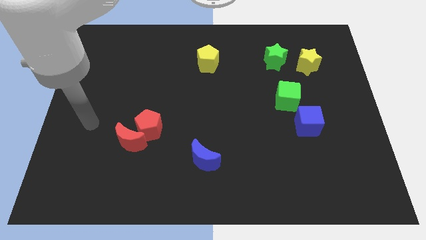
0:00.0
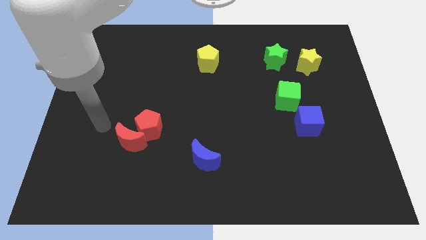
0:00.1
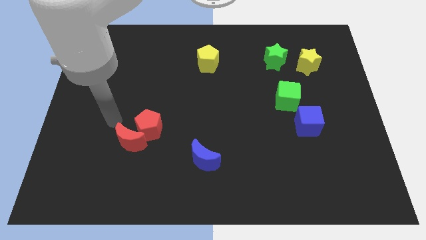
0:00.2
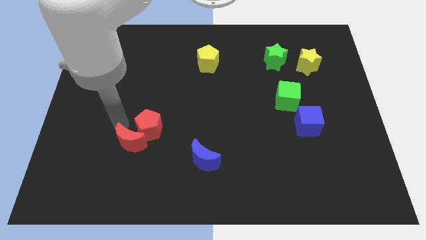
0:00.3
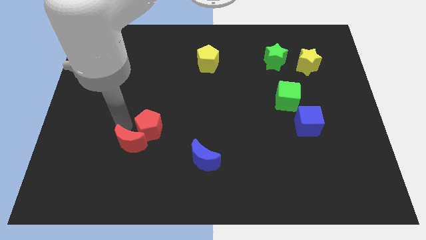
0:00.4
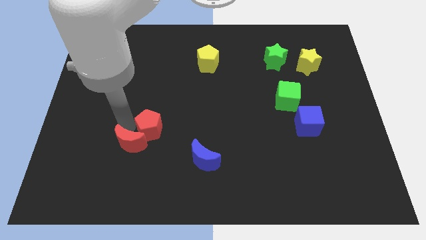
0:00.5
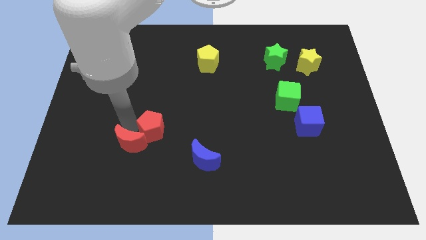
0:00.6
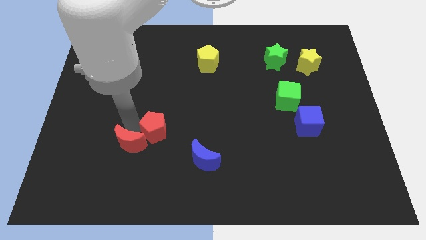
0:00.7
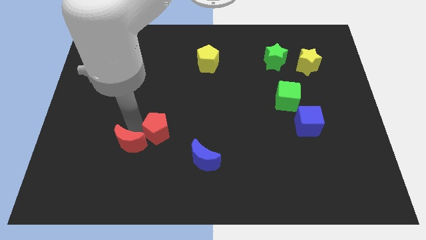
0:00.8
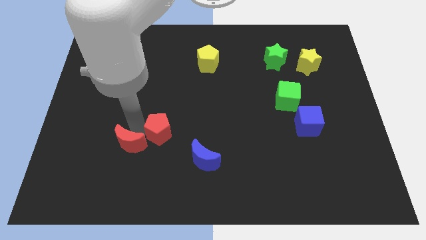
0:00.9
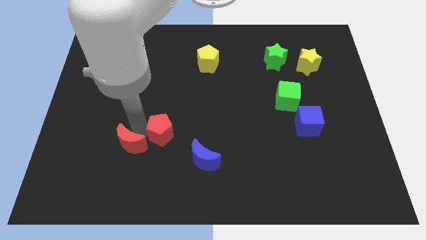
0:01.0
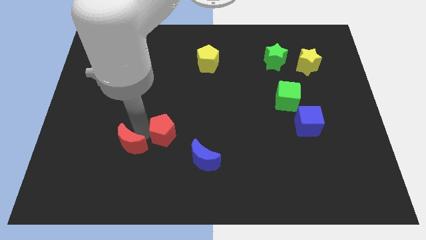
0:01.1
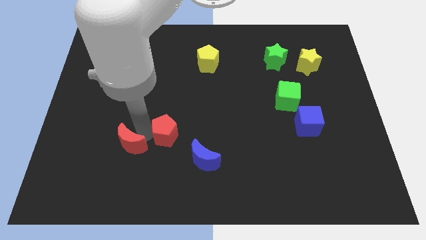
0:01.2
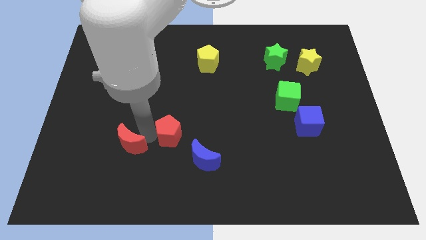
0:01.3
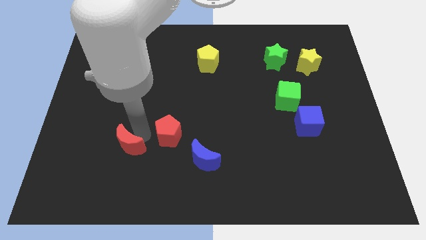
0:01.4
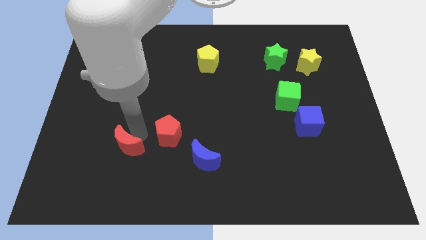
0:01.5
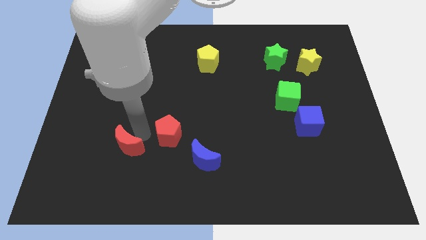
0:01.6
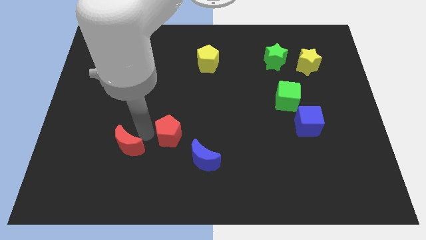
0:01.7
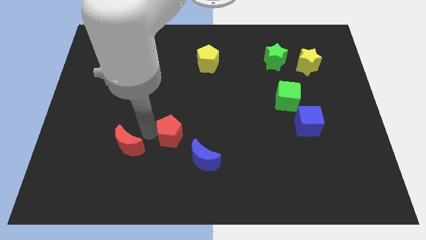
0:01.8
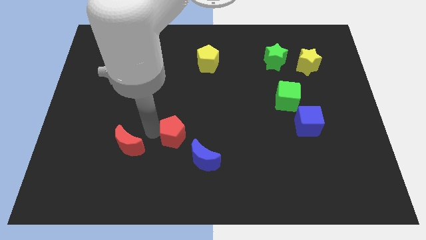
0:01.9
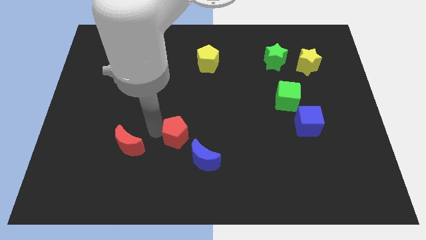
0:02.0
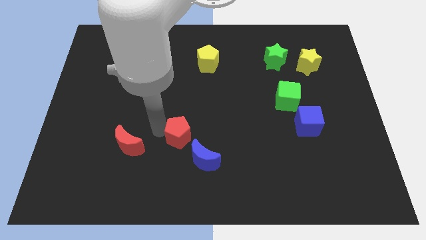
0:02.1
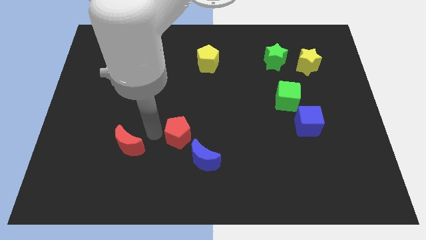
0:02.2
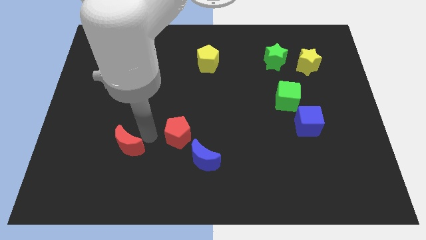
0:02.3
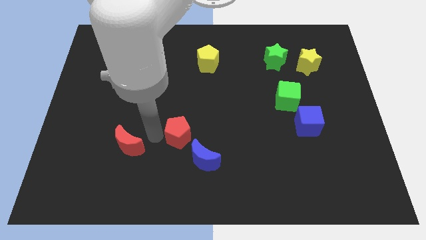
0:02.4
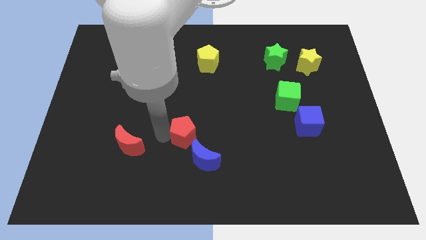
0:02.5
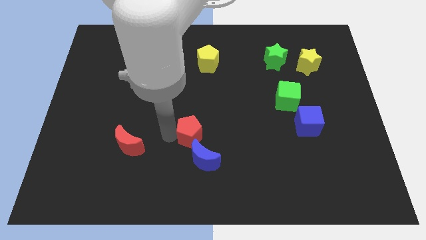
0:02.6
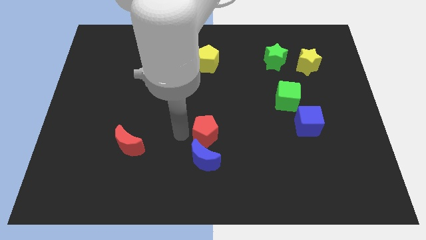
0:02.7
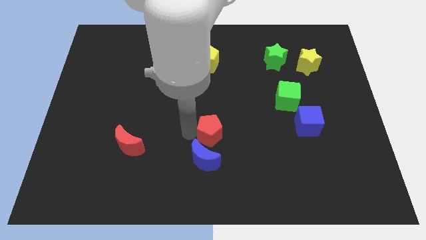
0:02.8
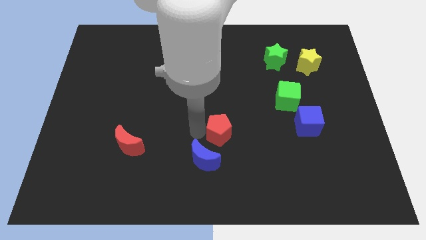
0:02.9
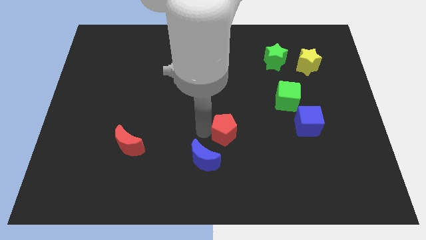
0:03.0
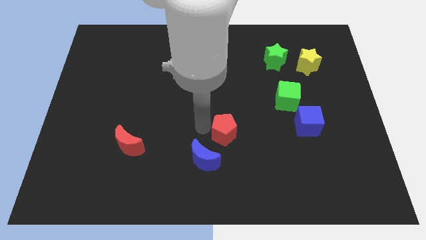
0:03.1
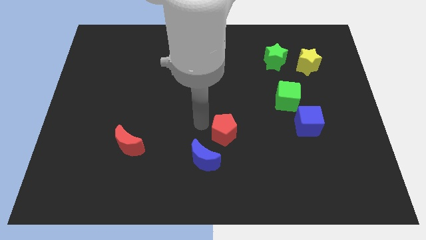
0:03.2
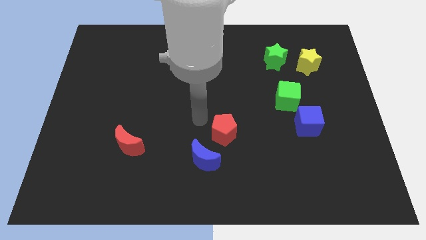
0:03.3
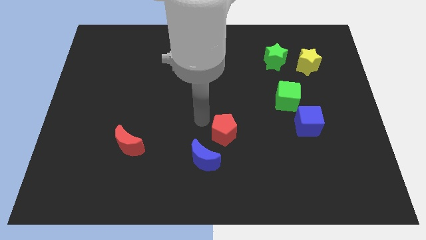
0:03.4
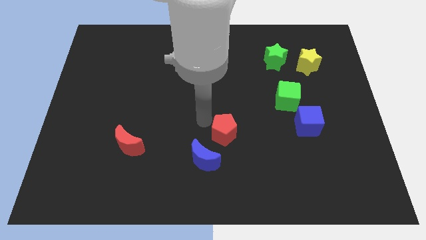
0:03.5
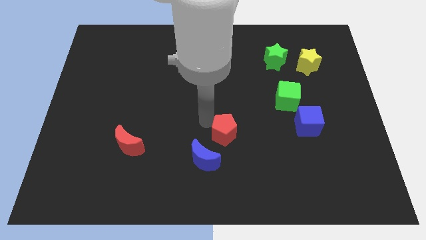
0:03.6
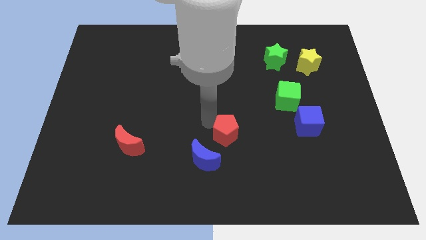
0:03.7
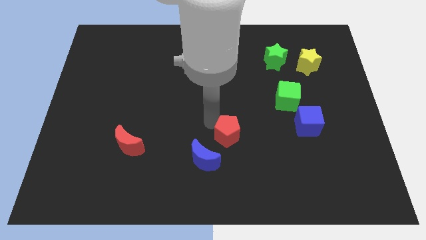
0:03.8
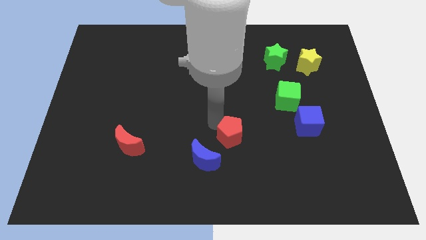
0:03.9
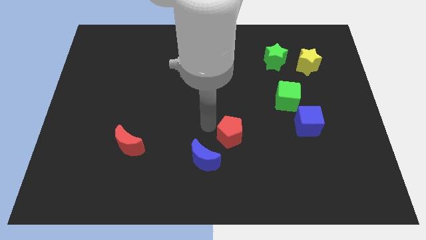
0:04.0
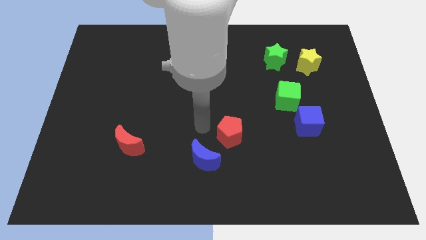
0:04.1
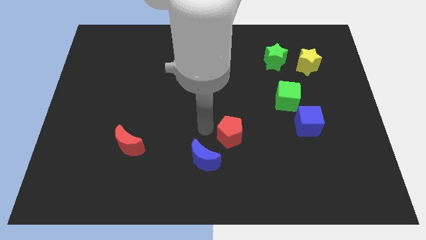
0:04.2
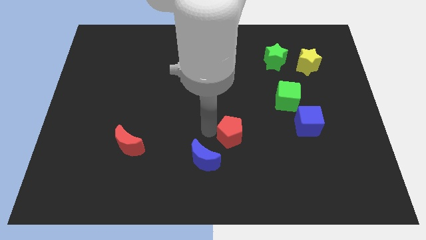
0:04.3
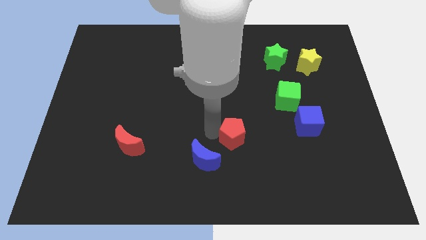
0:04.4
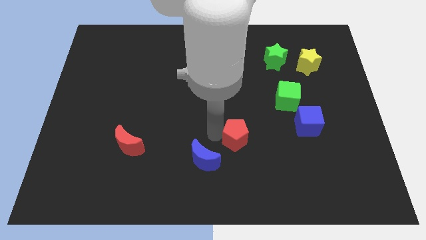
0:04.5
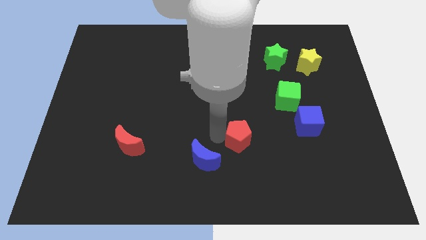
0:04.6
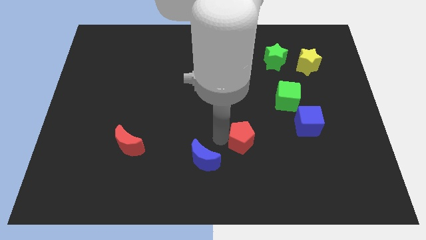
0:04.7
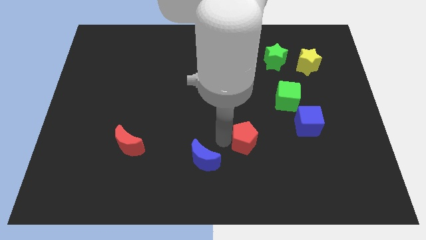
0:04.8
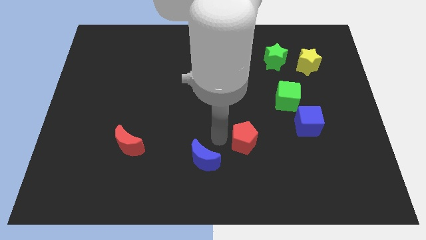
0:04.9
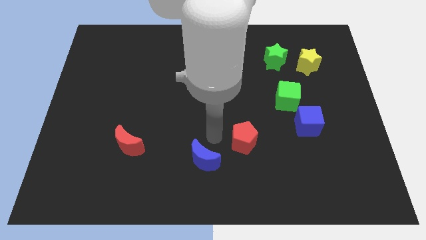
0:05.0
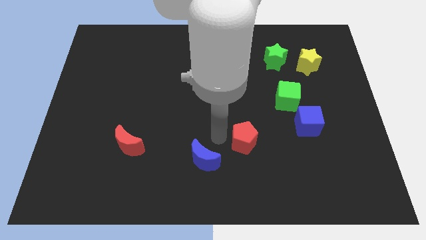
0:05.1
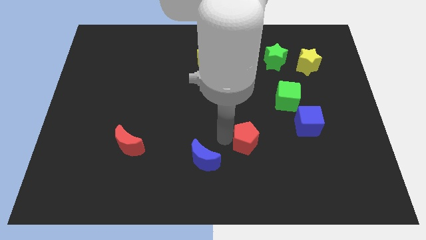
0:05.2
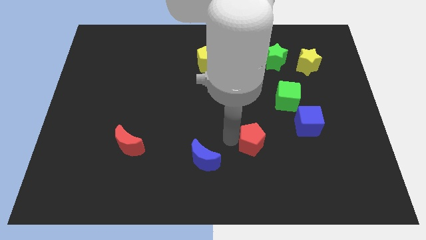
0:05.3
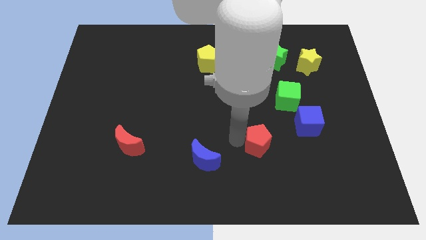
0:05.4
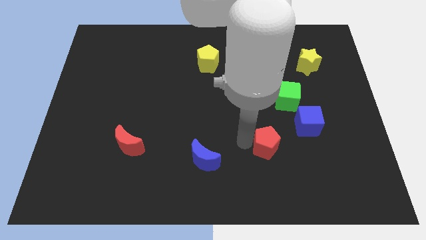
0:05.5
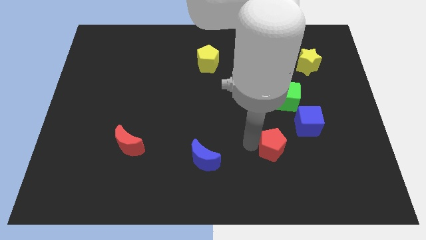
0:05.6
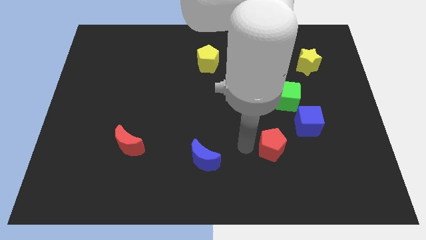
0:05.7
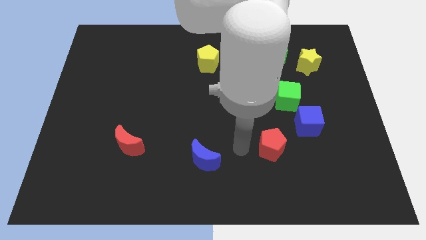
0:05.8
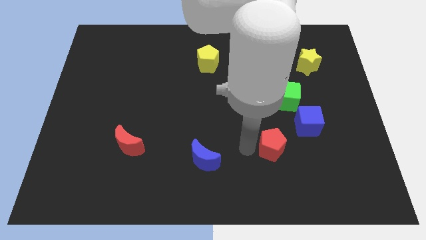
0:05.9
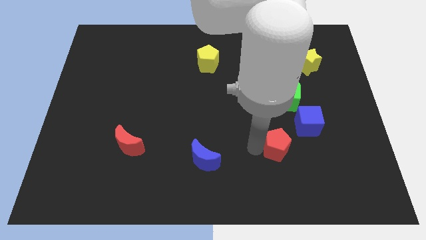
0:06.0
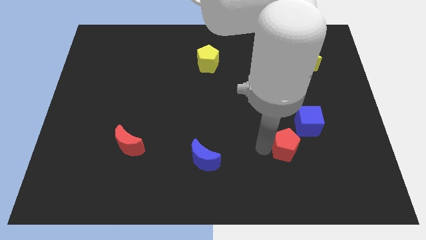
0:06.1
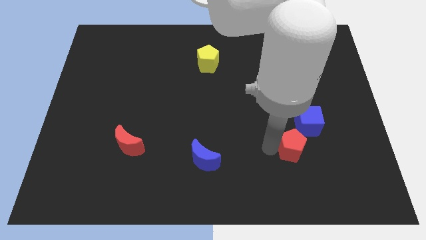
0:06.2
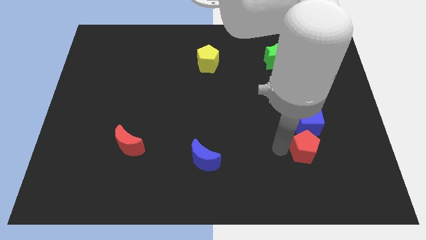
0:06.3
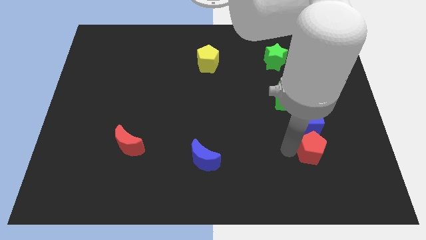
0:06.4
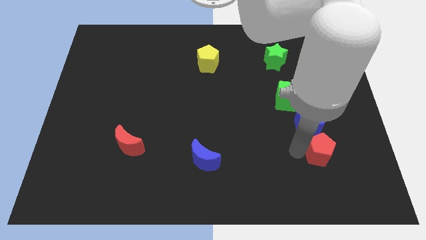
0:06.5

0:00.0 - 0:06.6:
slide the red pentagon to the bottom right side of the blue cube
